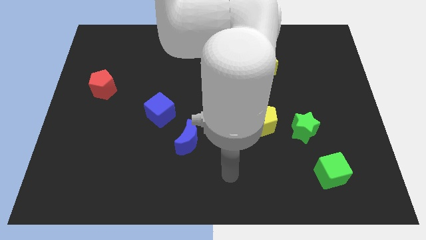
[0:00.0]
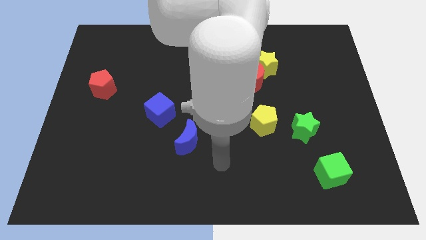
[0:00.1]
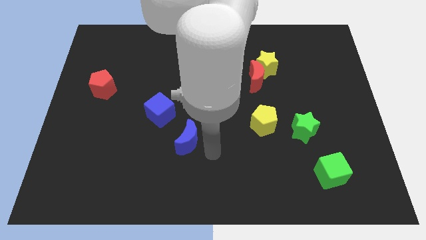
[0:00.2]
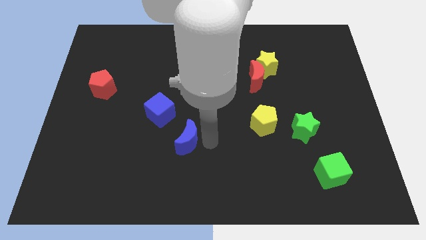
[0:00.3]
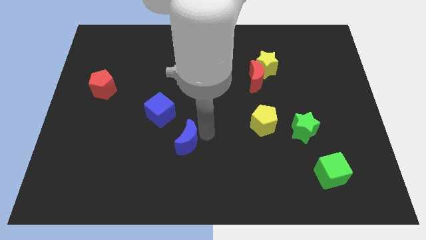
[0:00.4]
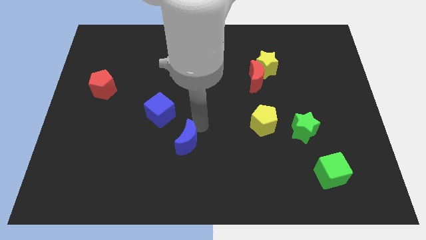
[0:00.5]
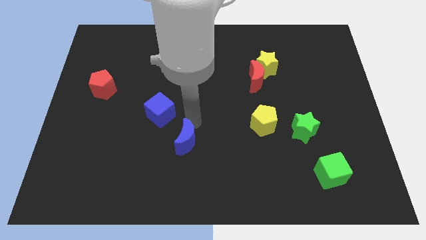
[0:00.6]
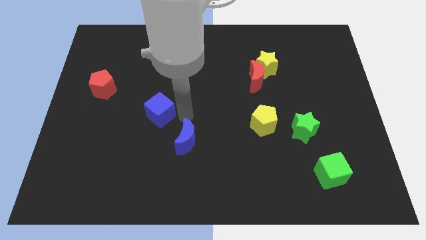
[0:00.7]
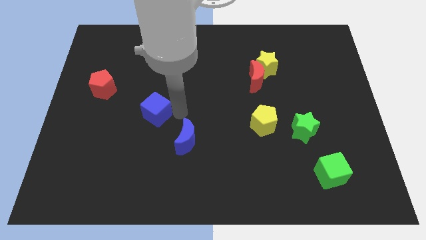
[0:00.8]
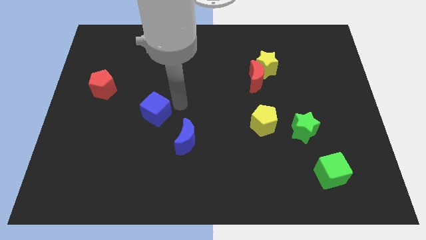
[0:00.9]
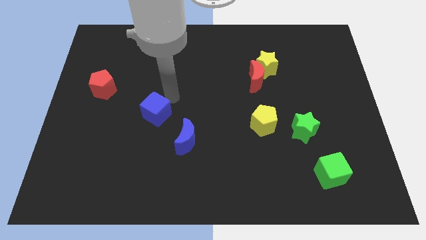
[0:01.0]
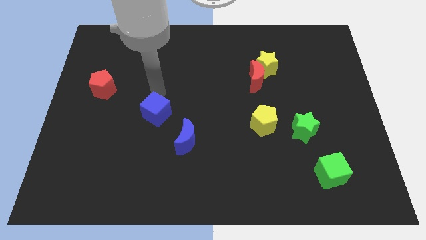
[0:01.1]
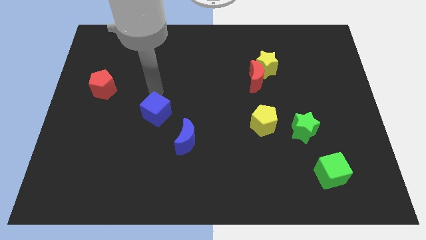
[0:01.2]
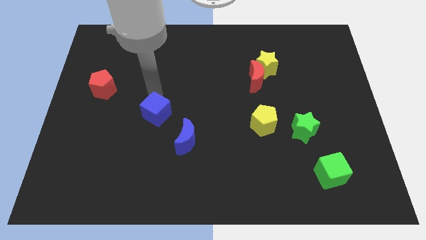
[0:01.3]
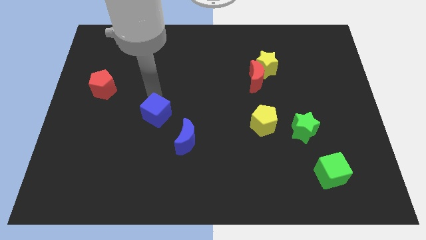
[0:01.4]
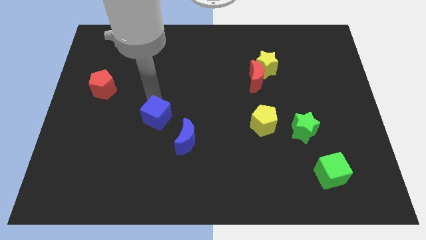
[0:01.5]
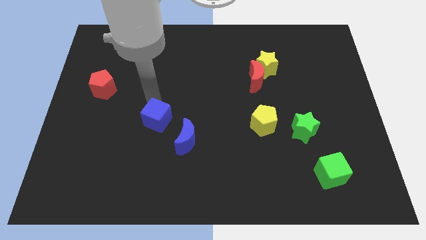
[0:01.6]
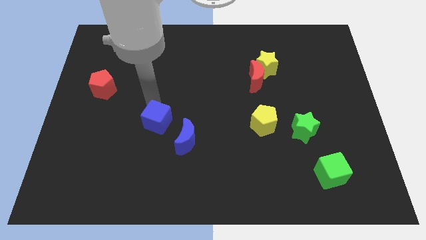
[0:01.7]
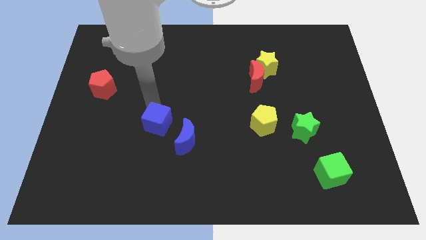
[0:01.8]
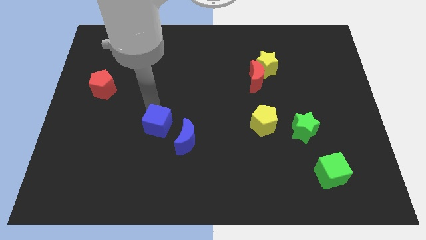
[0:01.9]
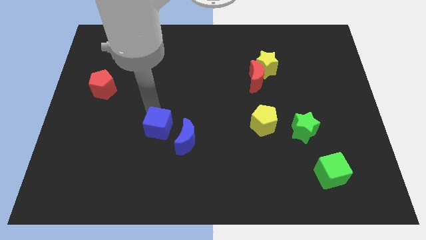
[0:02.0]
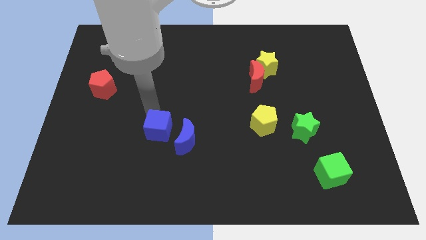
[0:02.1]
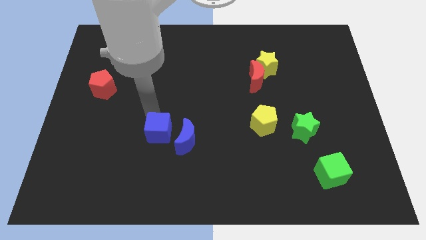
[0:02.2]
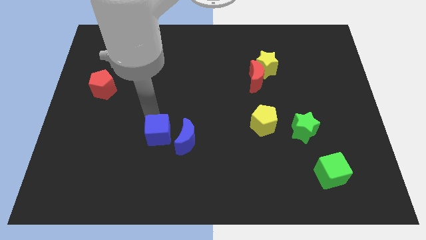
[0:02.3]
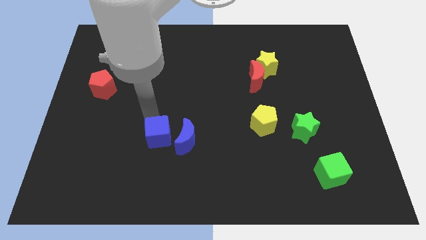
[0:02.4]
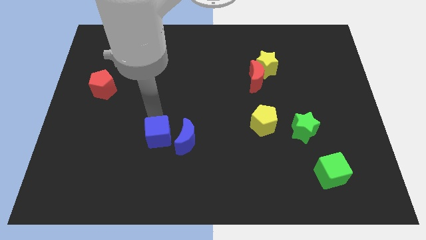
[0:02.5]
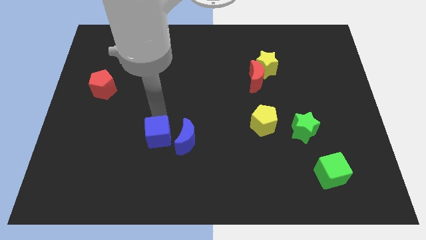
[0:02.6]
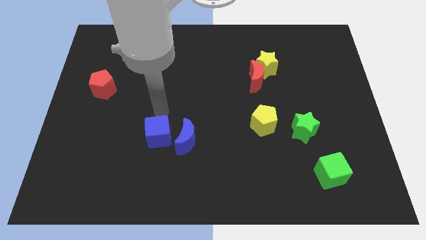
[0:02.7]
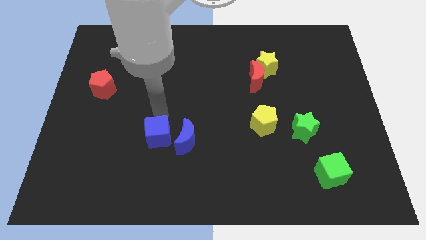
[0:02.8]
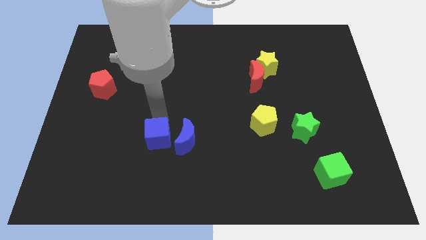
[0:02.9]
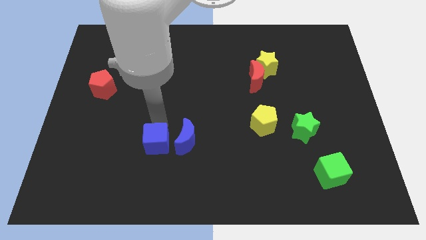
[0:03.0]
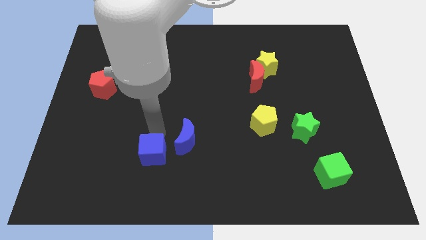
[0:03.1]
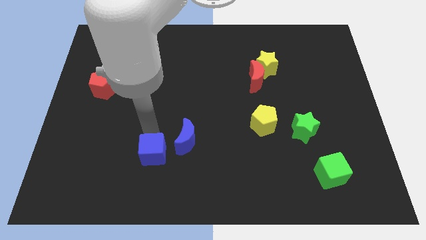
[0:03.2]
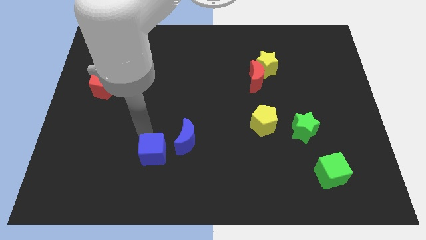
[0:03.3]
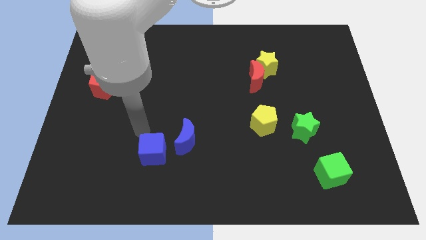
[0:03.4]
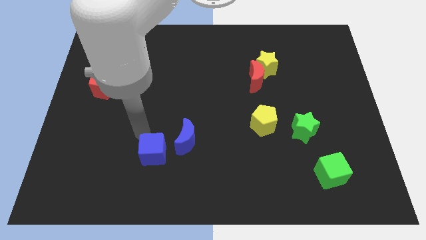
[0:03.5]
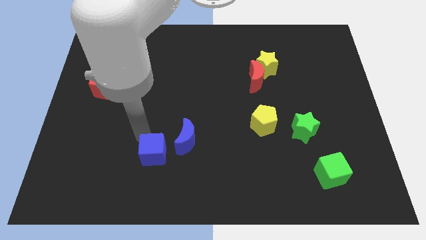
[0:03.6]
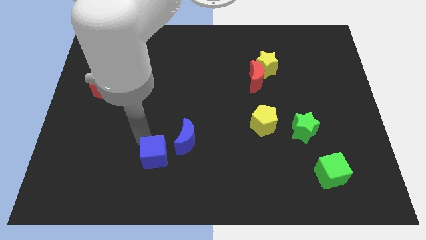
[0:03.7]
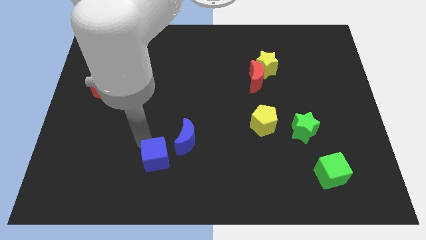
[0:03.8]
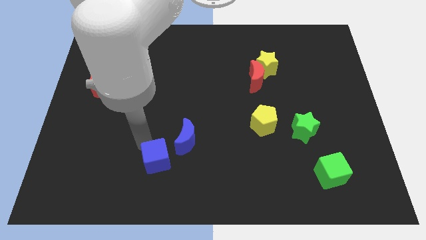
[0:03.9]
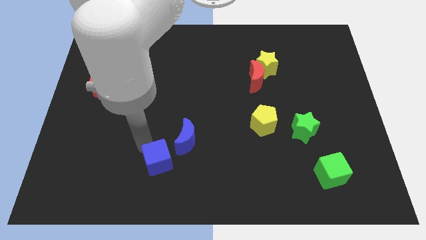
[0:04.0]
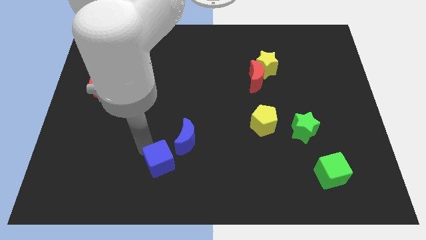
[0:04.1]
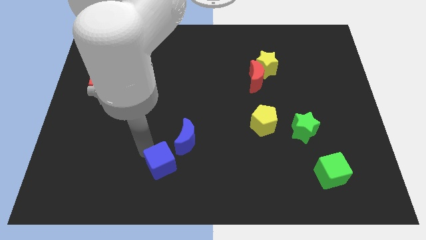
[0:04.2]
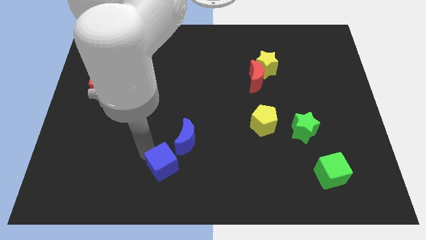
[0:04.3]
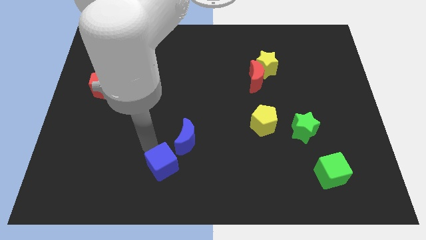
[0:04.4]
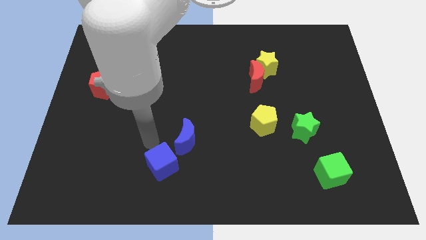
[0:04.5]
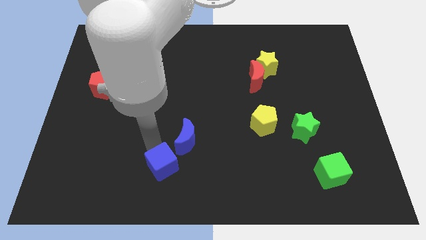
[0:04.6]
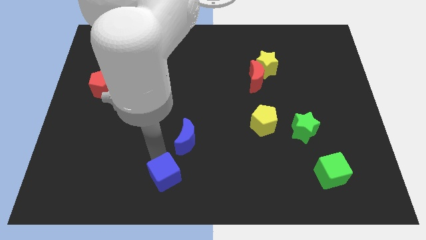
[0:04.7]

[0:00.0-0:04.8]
push the blue cube to the bottom

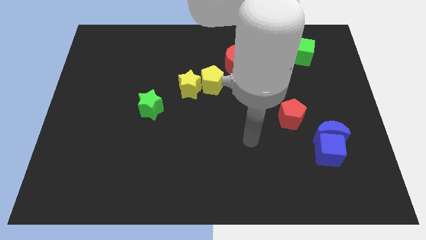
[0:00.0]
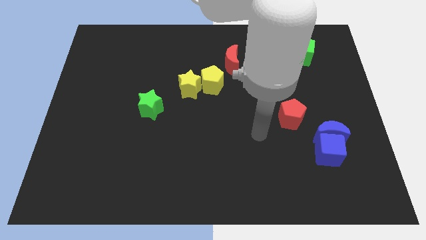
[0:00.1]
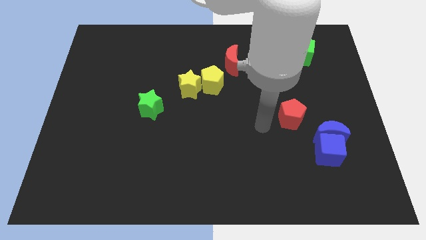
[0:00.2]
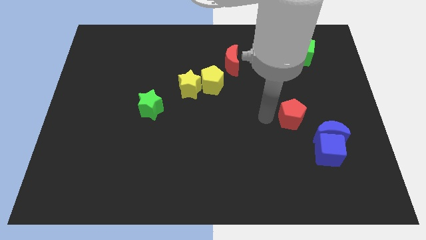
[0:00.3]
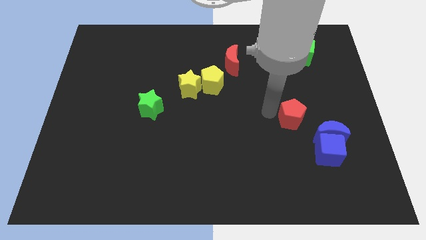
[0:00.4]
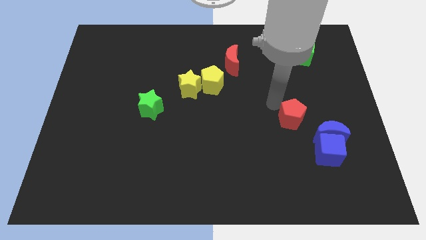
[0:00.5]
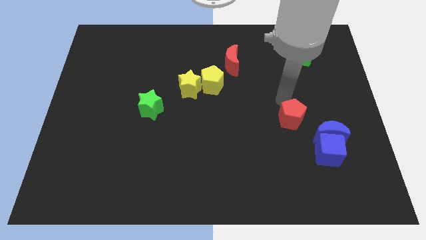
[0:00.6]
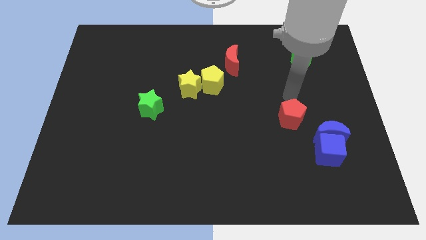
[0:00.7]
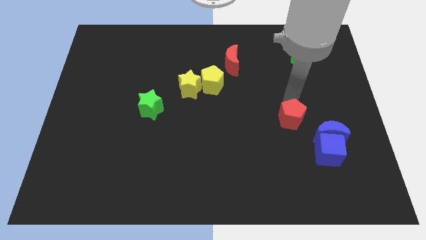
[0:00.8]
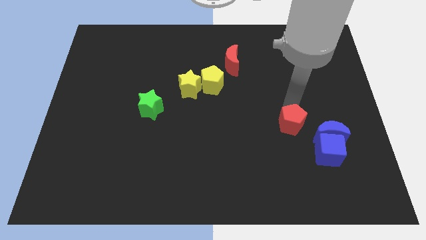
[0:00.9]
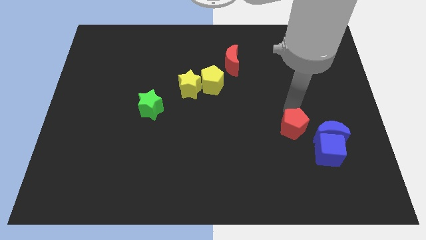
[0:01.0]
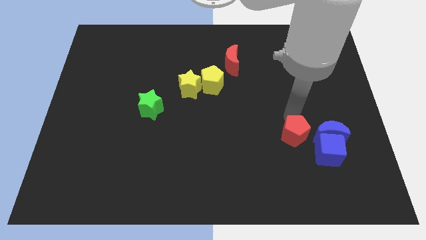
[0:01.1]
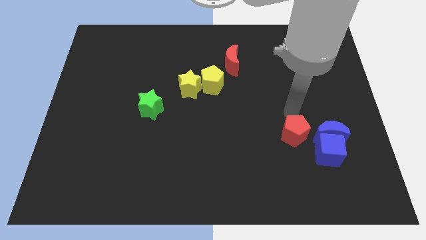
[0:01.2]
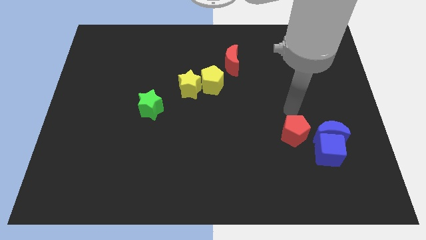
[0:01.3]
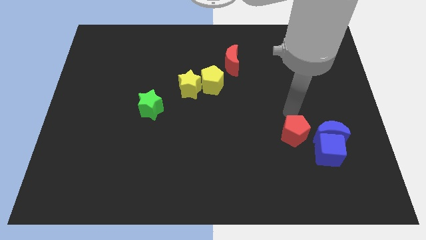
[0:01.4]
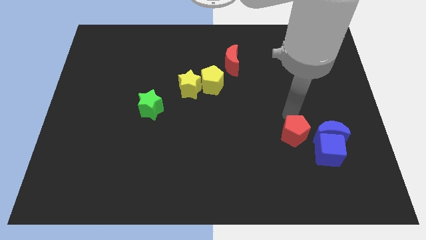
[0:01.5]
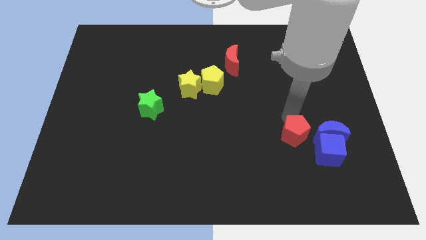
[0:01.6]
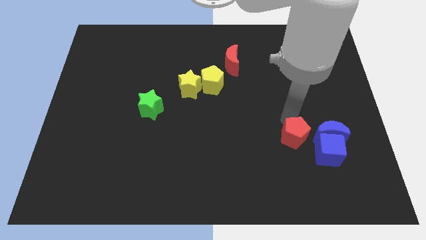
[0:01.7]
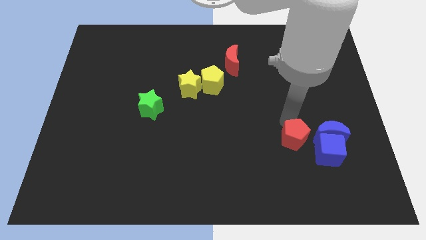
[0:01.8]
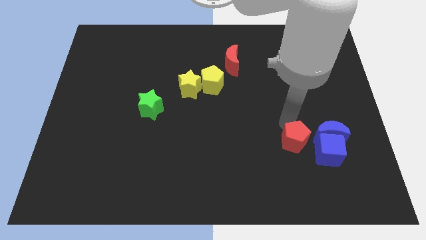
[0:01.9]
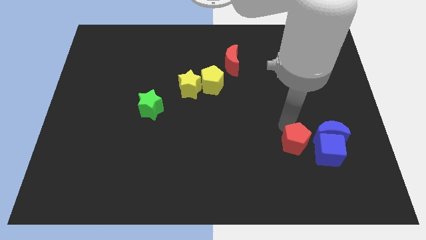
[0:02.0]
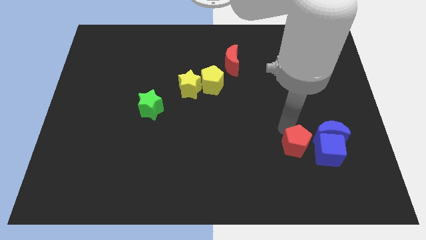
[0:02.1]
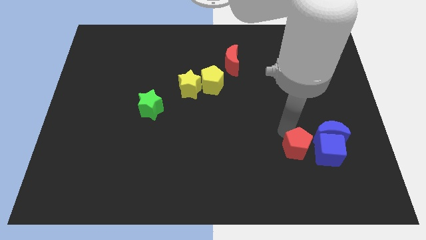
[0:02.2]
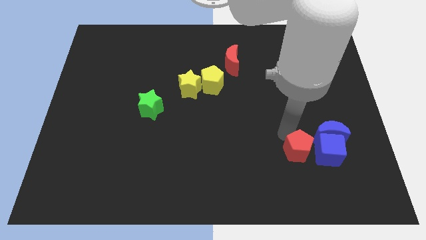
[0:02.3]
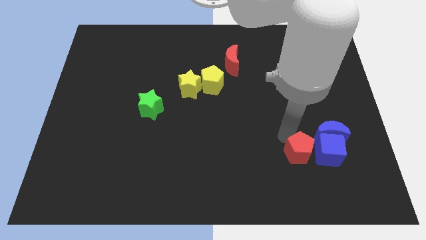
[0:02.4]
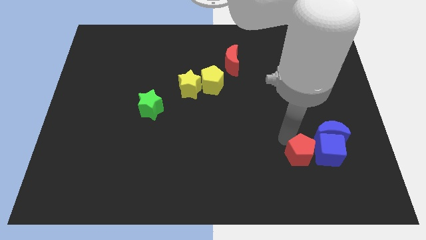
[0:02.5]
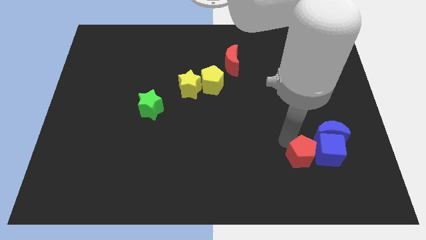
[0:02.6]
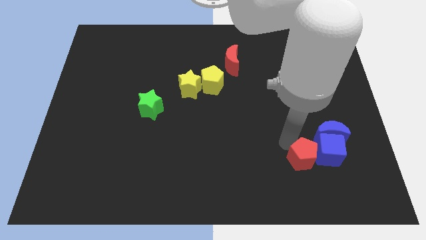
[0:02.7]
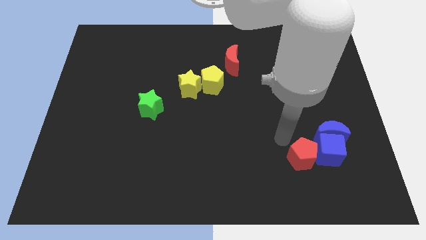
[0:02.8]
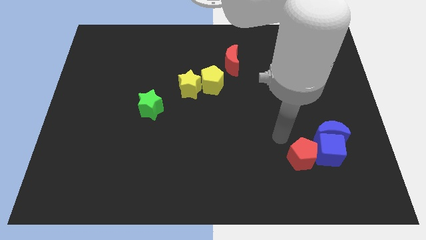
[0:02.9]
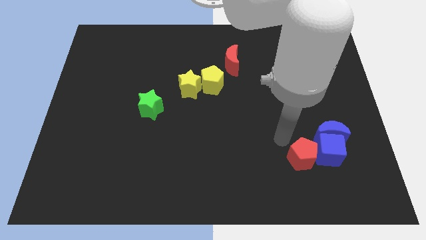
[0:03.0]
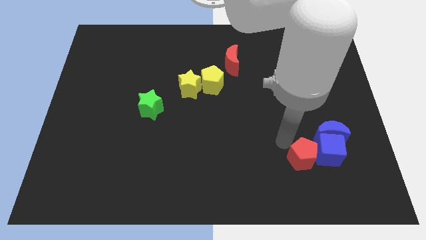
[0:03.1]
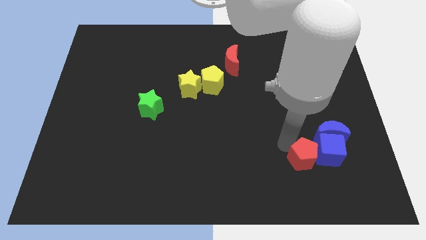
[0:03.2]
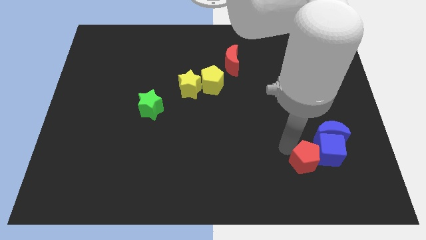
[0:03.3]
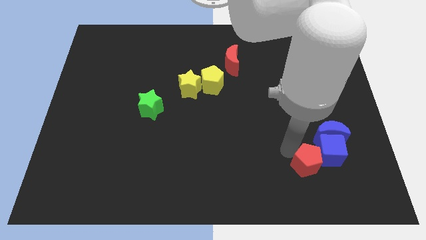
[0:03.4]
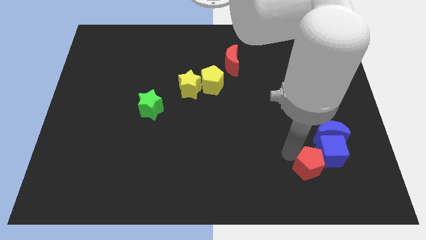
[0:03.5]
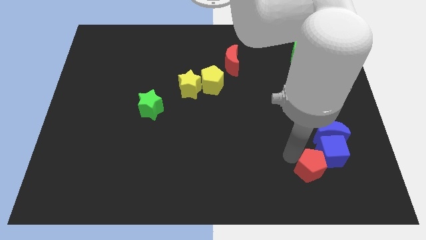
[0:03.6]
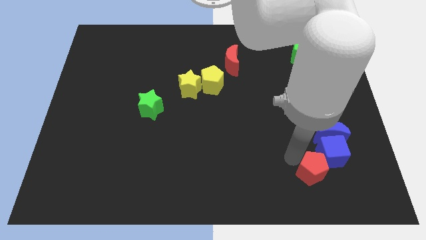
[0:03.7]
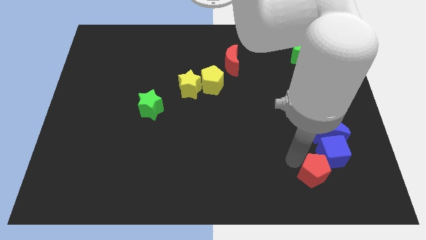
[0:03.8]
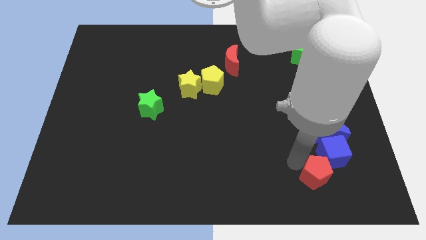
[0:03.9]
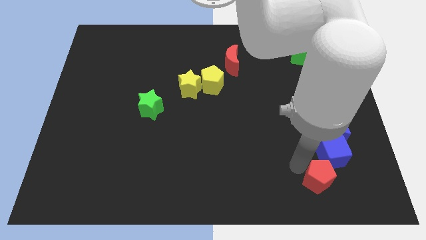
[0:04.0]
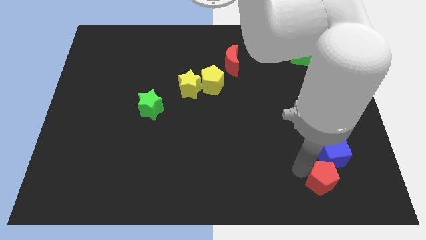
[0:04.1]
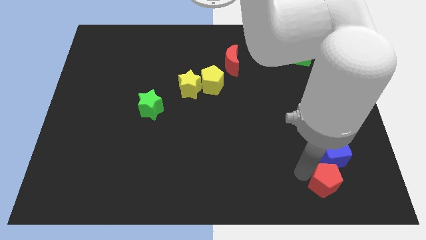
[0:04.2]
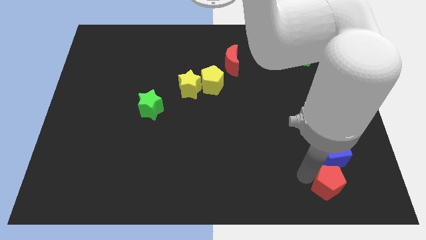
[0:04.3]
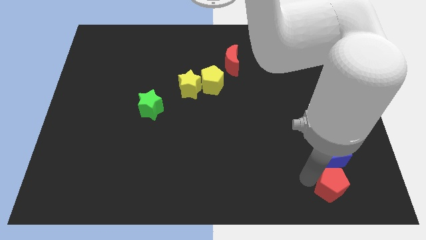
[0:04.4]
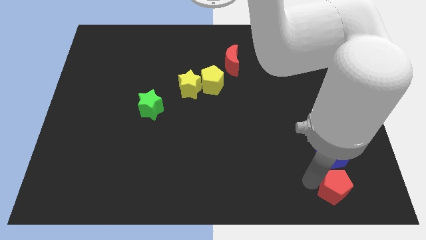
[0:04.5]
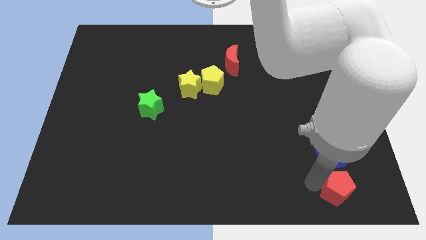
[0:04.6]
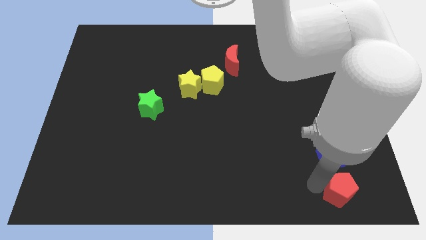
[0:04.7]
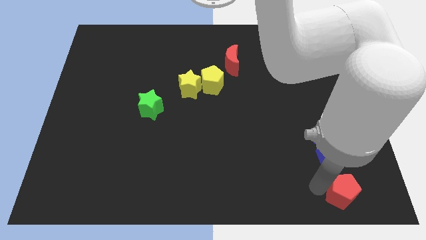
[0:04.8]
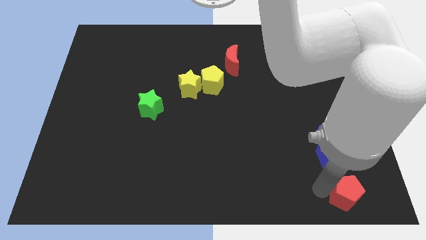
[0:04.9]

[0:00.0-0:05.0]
move the red pentagon to the bottom right of the board
